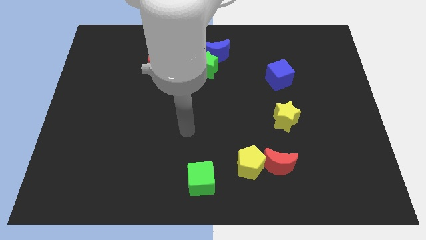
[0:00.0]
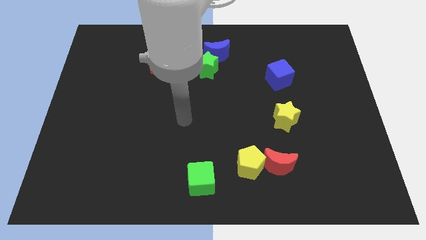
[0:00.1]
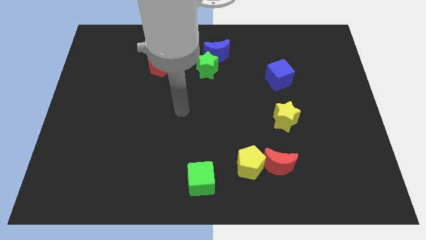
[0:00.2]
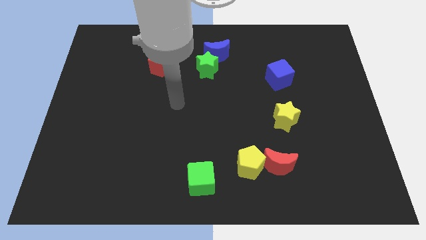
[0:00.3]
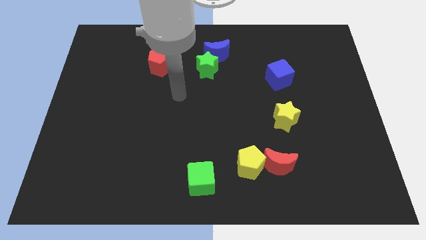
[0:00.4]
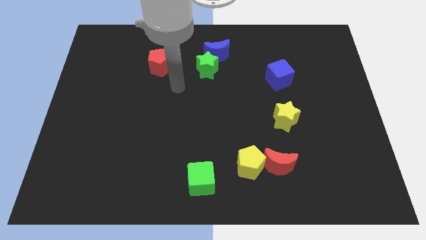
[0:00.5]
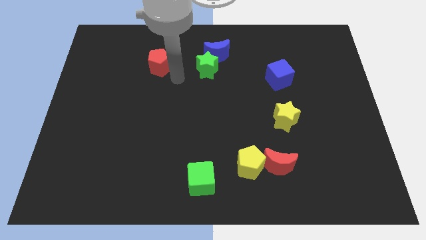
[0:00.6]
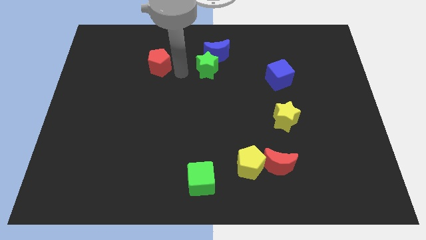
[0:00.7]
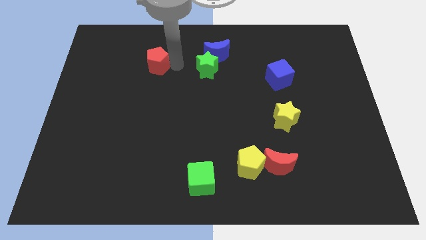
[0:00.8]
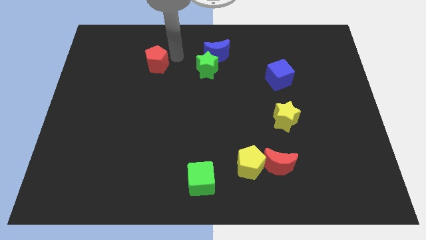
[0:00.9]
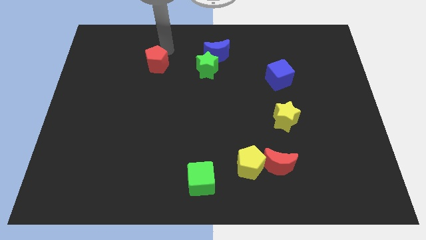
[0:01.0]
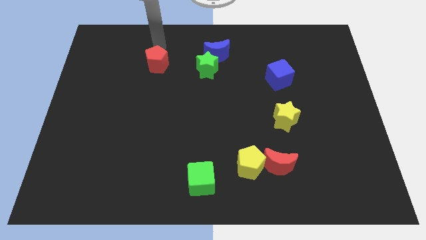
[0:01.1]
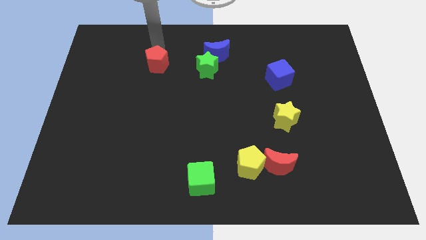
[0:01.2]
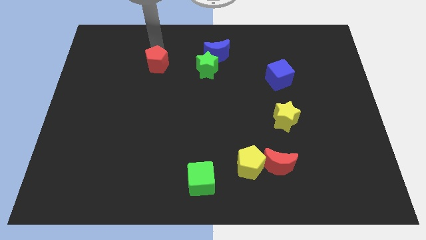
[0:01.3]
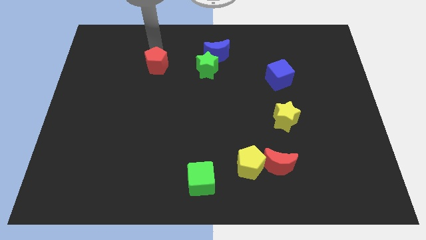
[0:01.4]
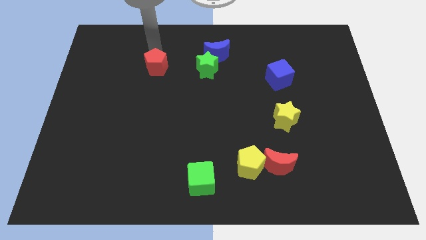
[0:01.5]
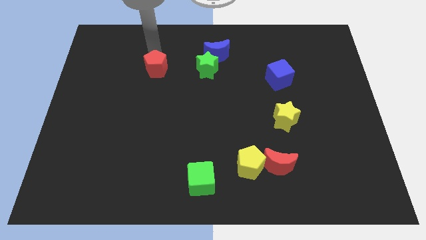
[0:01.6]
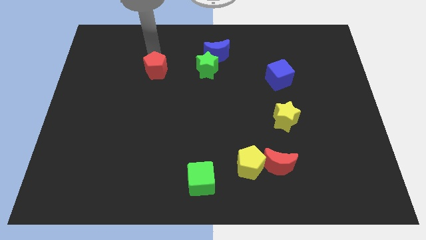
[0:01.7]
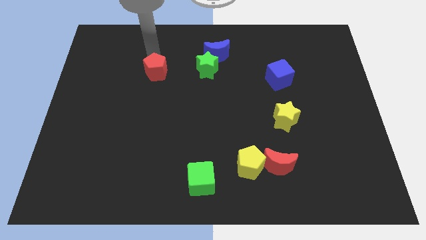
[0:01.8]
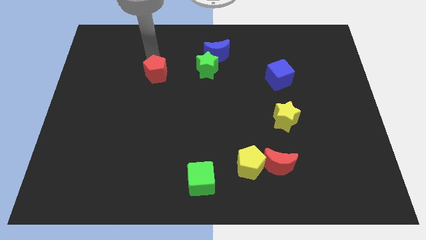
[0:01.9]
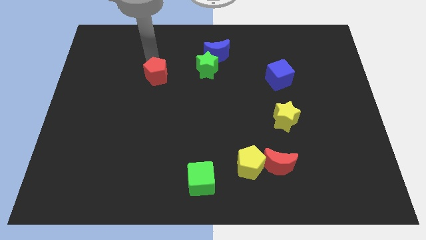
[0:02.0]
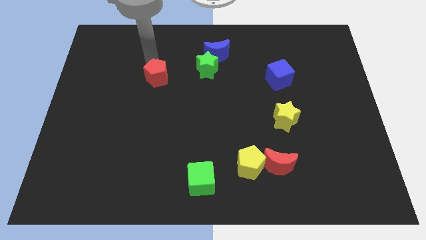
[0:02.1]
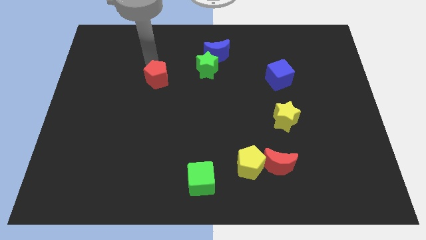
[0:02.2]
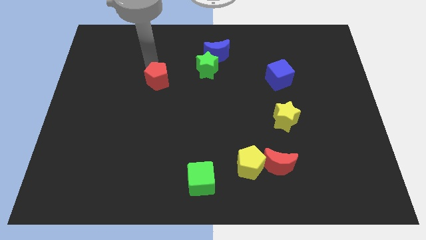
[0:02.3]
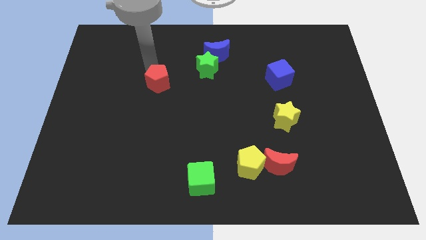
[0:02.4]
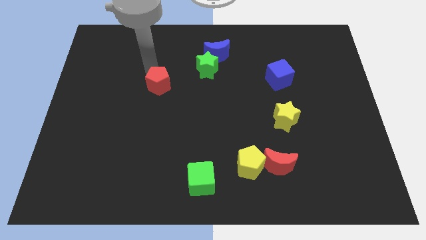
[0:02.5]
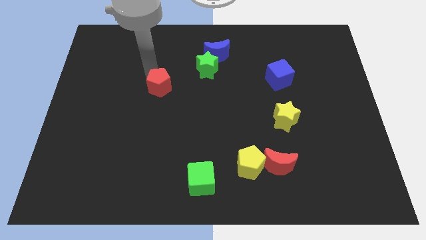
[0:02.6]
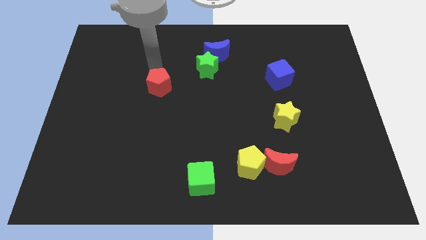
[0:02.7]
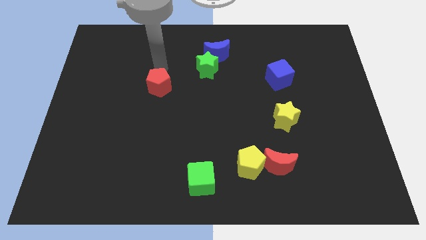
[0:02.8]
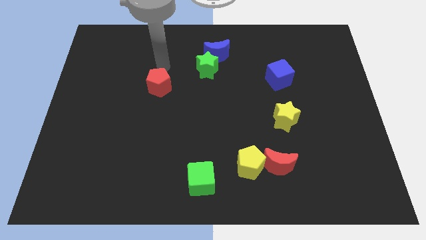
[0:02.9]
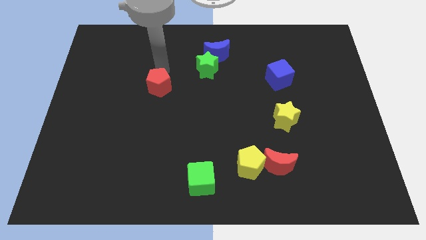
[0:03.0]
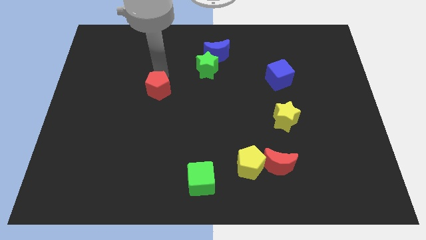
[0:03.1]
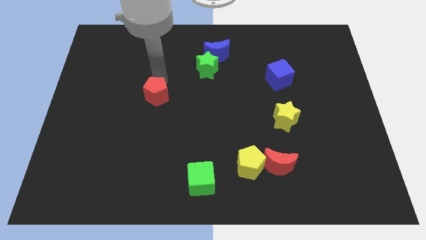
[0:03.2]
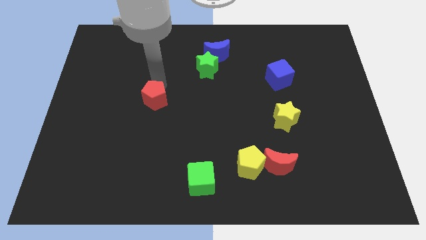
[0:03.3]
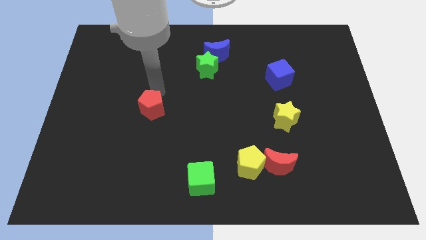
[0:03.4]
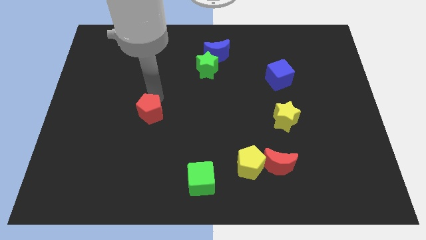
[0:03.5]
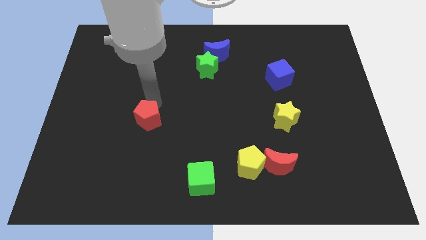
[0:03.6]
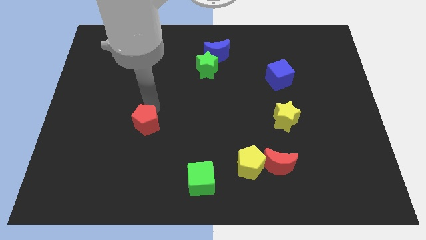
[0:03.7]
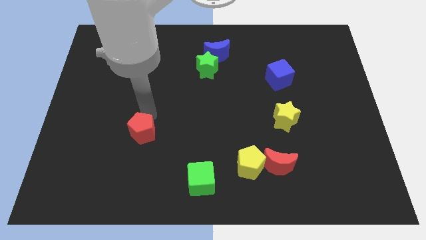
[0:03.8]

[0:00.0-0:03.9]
move the red pentagon downwards

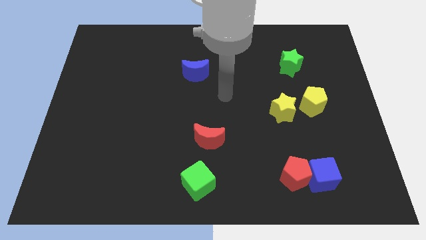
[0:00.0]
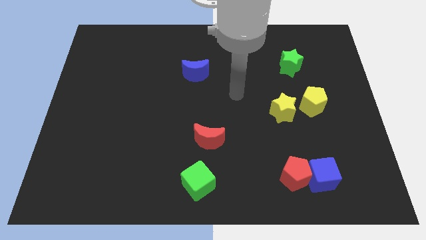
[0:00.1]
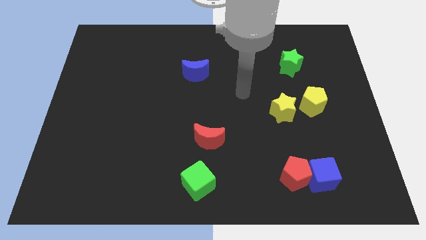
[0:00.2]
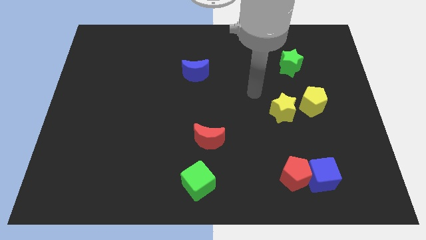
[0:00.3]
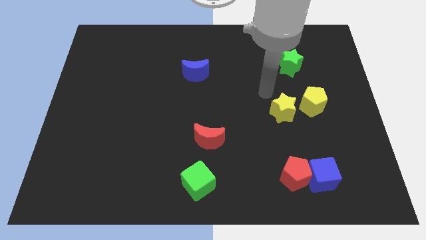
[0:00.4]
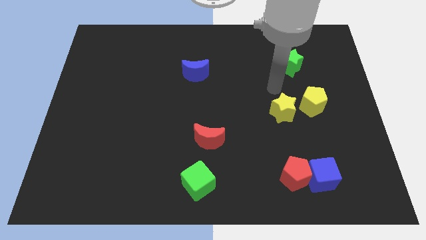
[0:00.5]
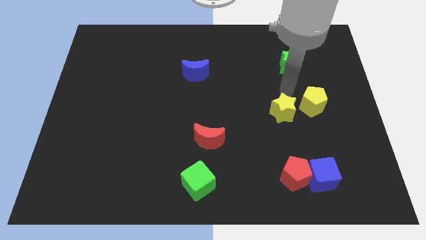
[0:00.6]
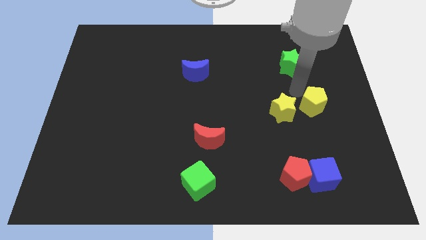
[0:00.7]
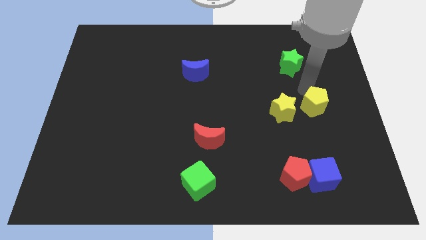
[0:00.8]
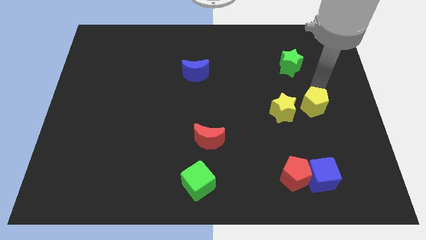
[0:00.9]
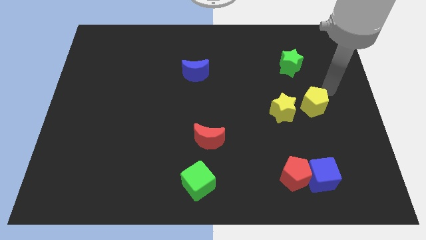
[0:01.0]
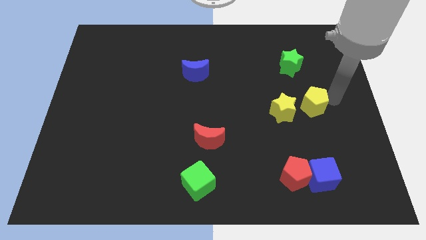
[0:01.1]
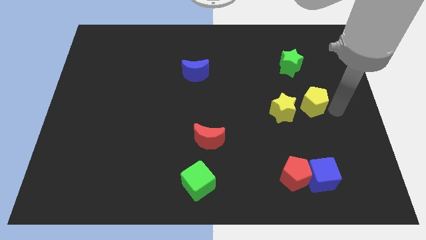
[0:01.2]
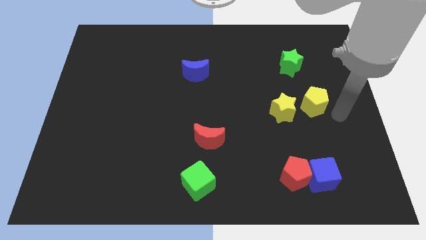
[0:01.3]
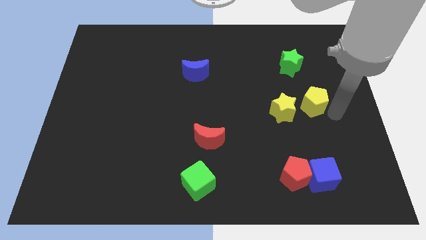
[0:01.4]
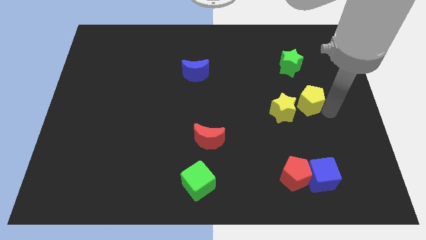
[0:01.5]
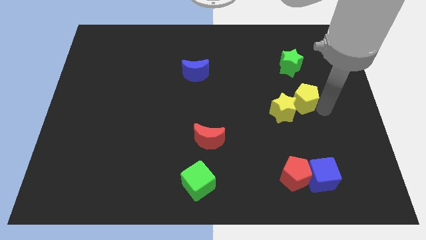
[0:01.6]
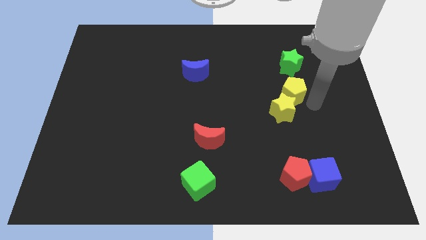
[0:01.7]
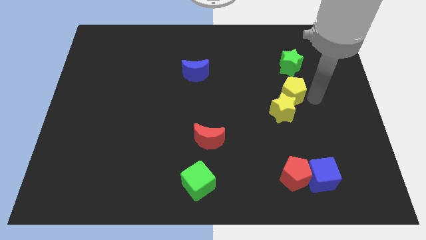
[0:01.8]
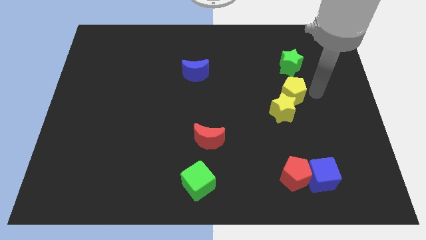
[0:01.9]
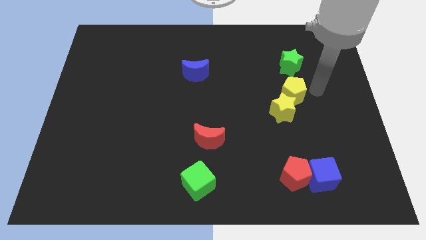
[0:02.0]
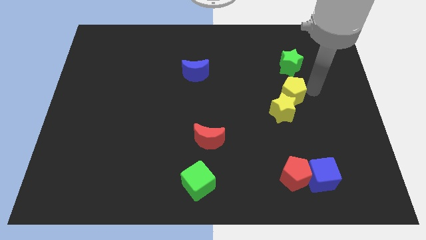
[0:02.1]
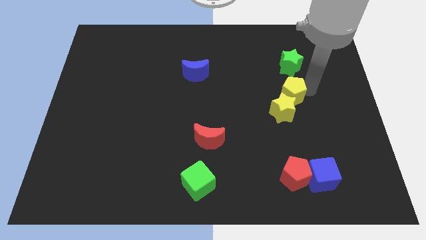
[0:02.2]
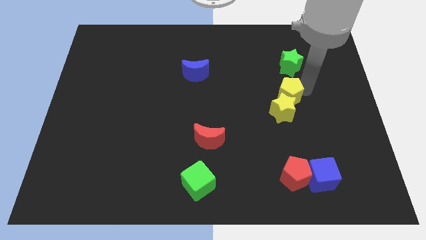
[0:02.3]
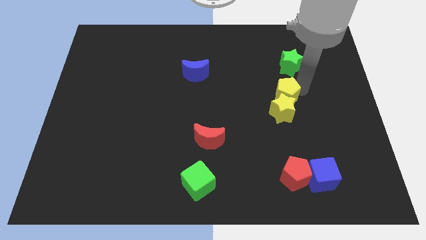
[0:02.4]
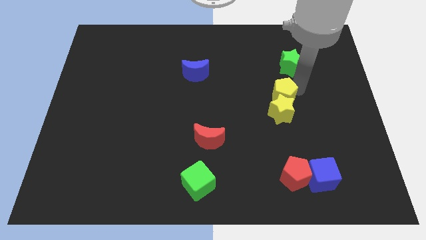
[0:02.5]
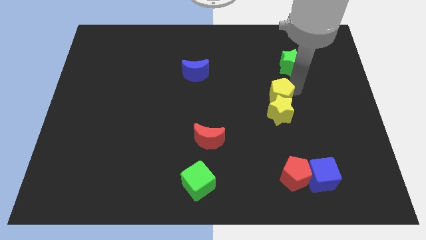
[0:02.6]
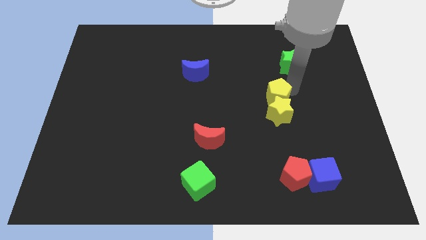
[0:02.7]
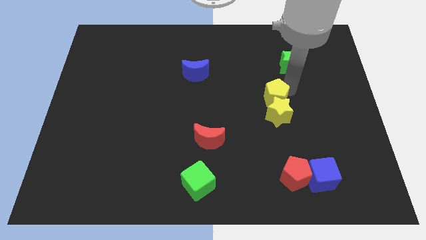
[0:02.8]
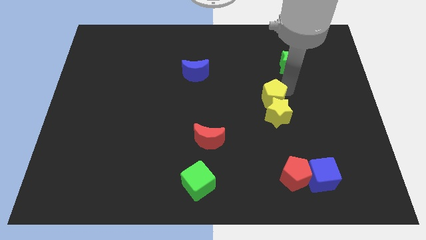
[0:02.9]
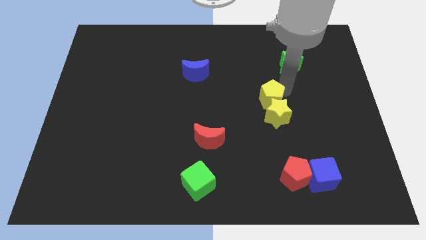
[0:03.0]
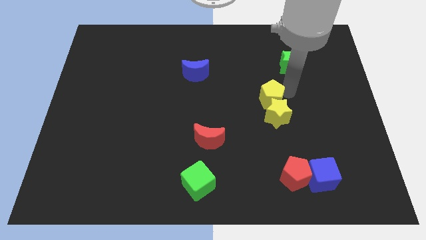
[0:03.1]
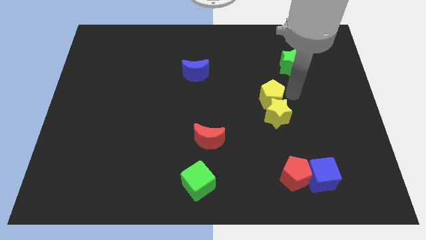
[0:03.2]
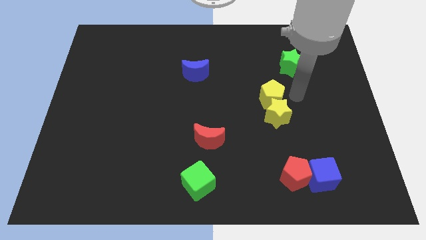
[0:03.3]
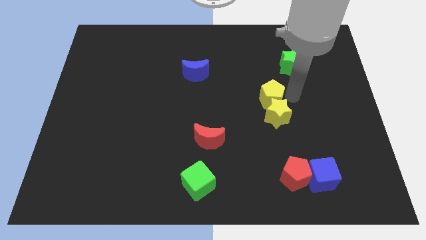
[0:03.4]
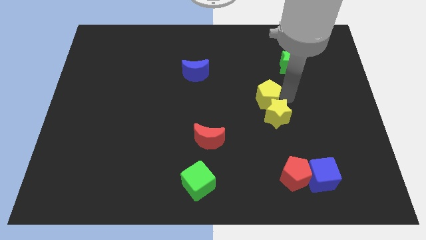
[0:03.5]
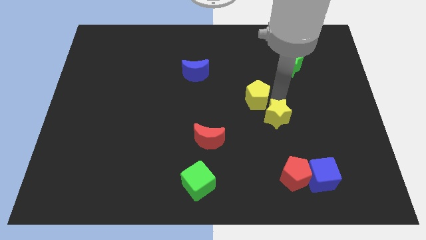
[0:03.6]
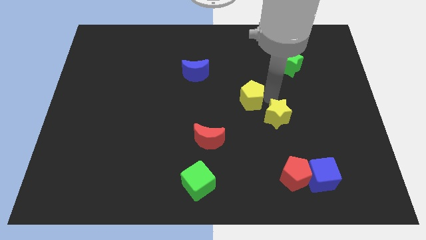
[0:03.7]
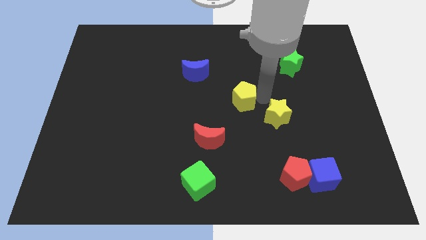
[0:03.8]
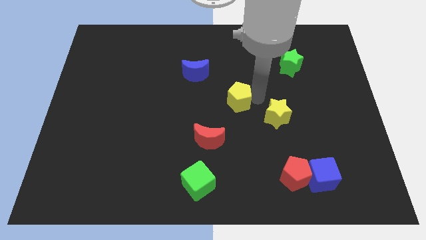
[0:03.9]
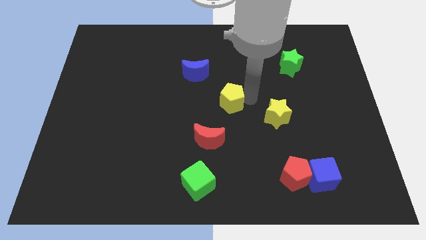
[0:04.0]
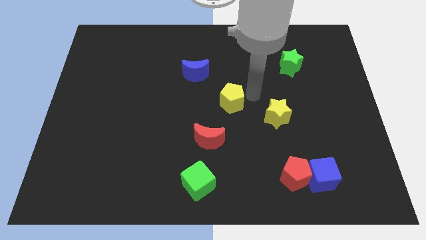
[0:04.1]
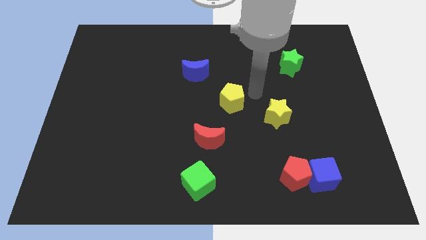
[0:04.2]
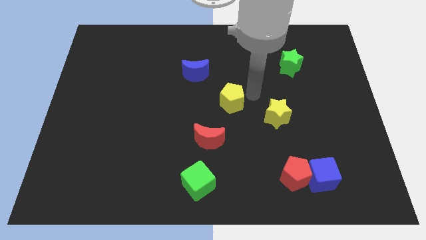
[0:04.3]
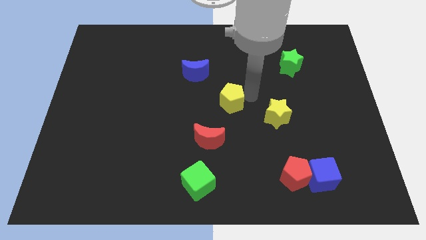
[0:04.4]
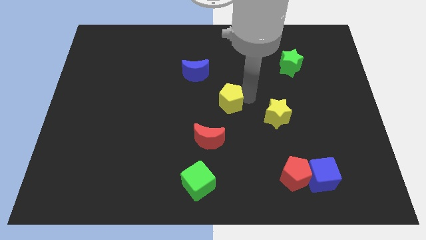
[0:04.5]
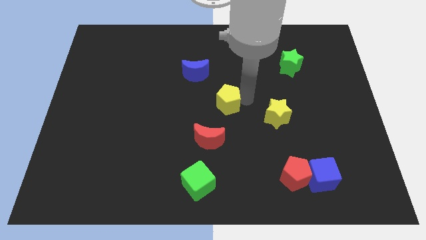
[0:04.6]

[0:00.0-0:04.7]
move the yellow pentagon left
